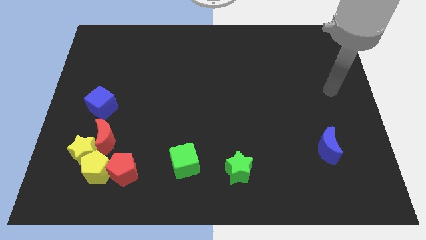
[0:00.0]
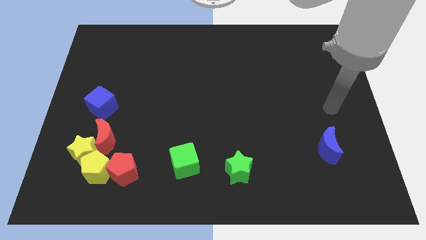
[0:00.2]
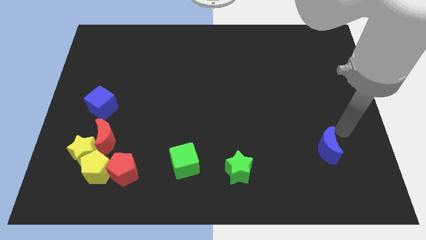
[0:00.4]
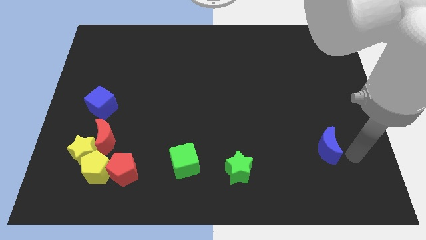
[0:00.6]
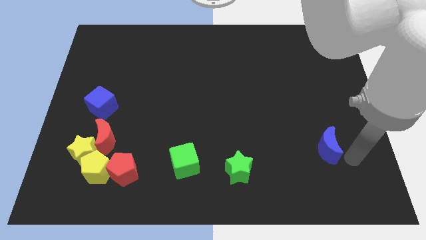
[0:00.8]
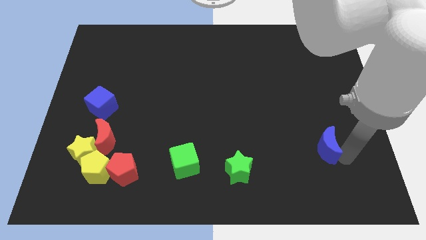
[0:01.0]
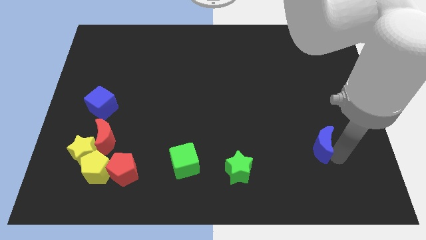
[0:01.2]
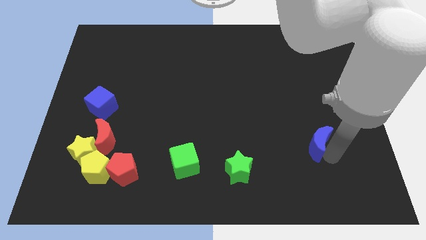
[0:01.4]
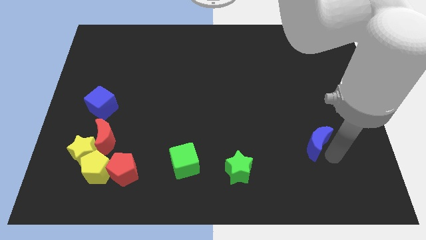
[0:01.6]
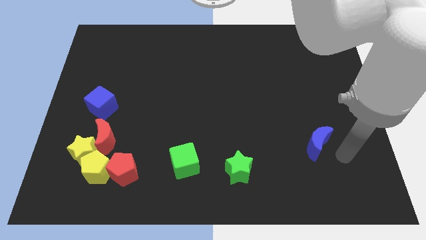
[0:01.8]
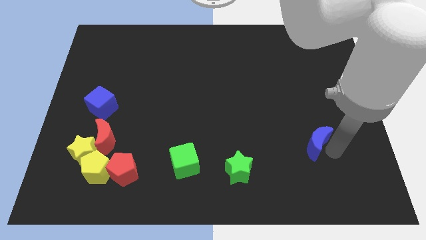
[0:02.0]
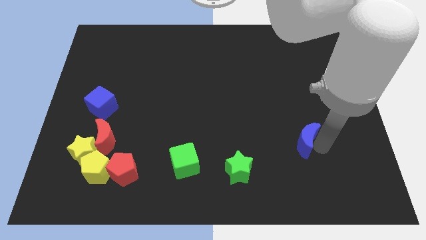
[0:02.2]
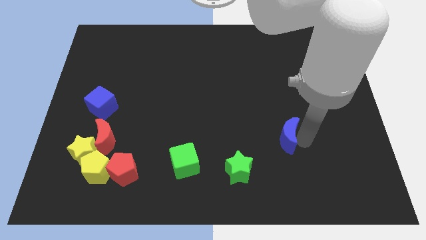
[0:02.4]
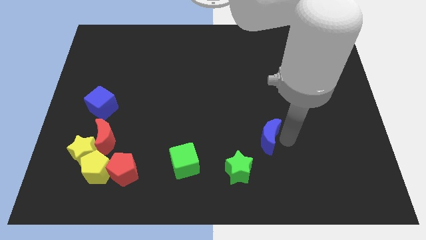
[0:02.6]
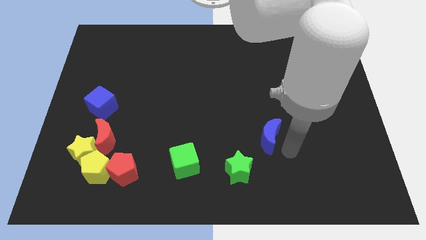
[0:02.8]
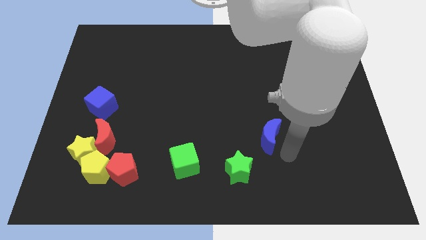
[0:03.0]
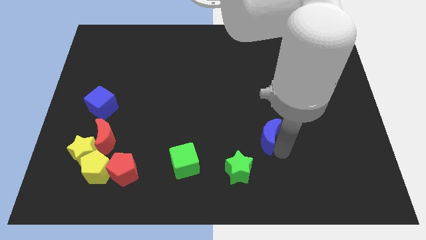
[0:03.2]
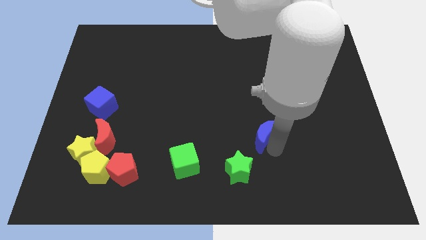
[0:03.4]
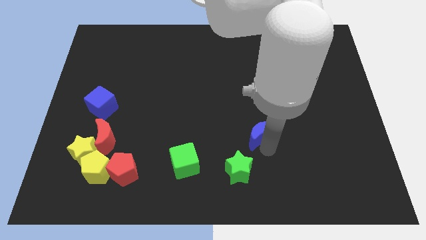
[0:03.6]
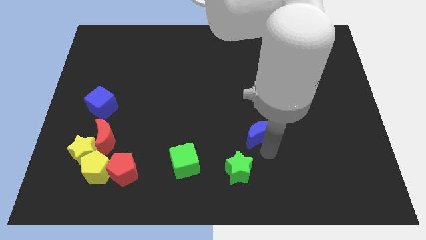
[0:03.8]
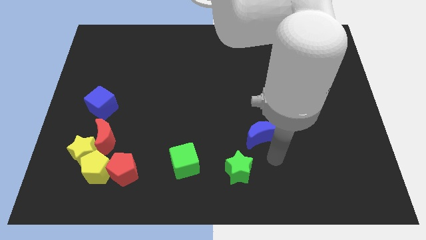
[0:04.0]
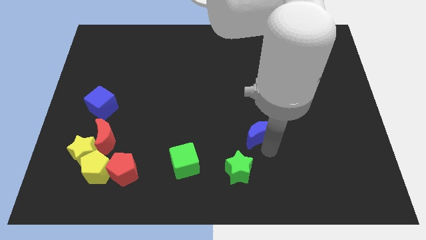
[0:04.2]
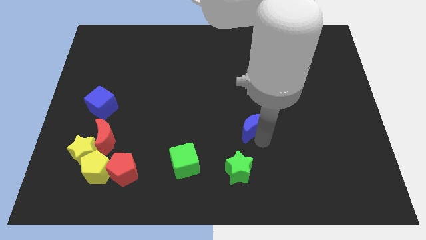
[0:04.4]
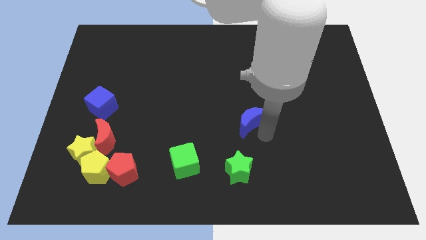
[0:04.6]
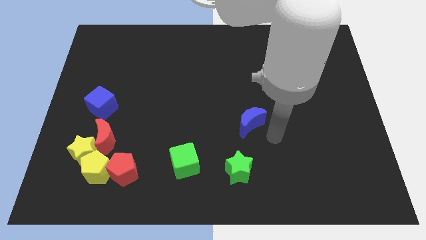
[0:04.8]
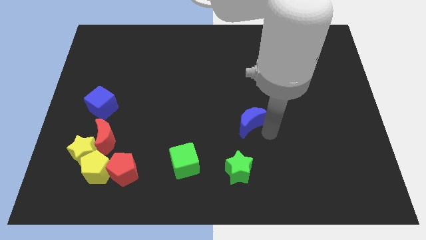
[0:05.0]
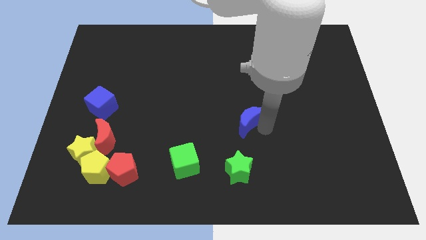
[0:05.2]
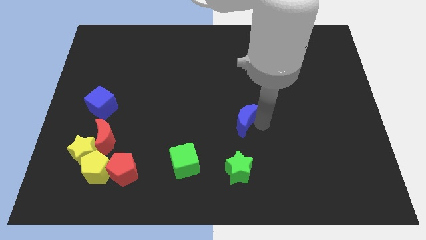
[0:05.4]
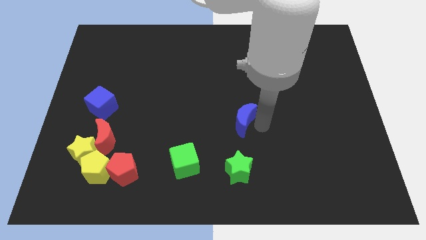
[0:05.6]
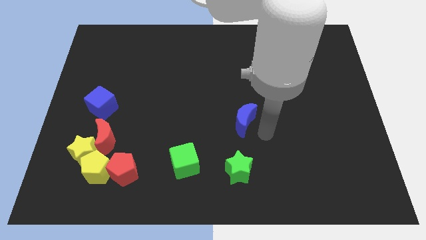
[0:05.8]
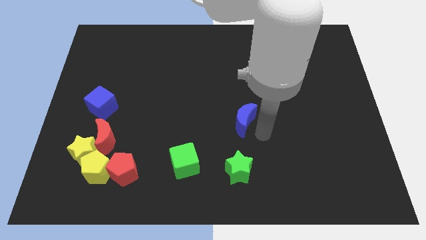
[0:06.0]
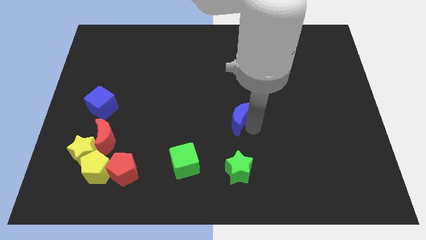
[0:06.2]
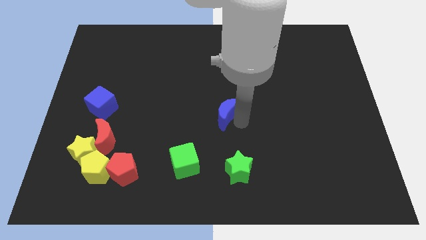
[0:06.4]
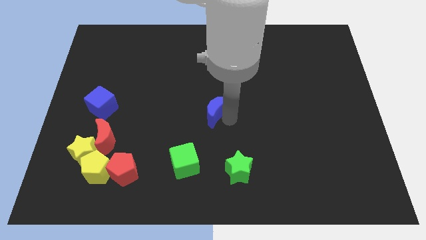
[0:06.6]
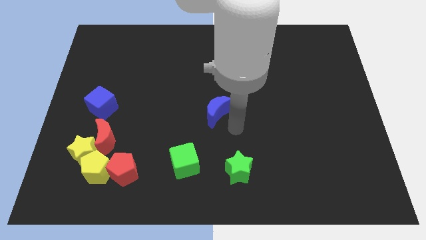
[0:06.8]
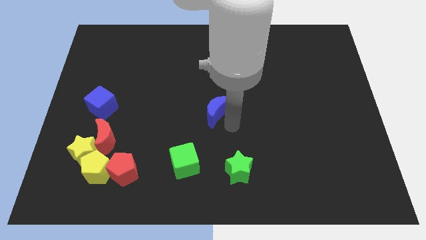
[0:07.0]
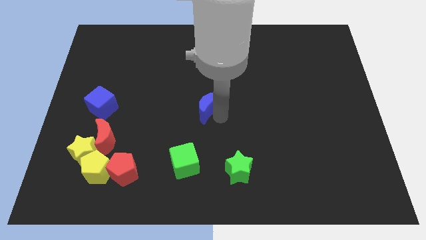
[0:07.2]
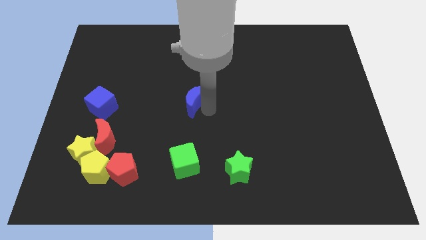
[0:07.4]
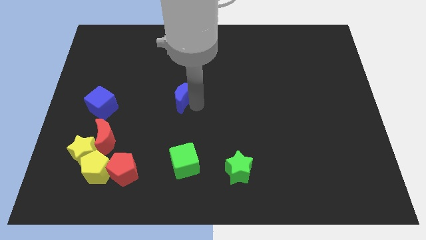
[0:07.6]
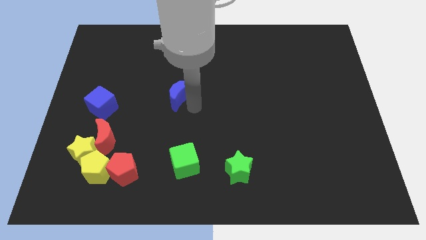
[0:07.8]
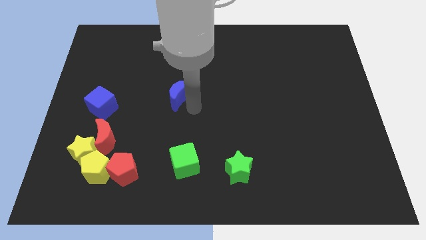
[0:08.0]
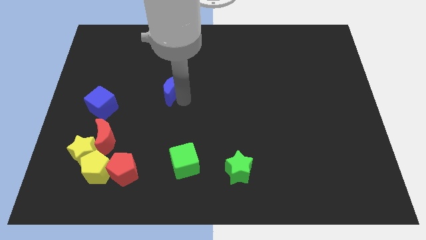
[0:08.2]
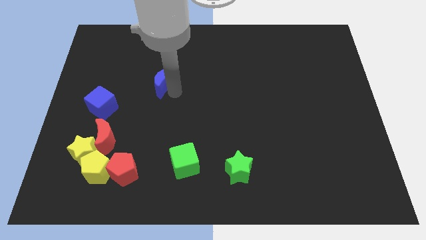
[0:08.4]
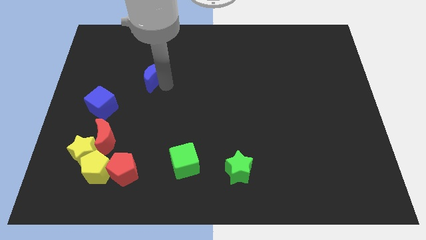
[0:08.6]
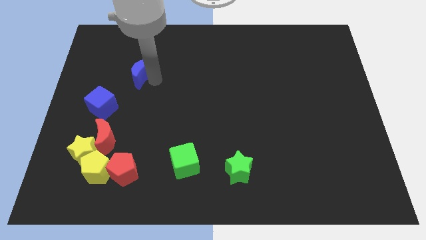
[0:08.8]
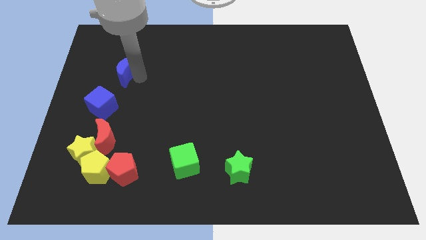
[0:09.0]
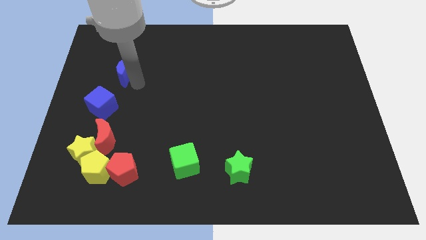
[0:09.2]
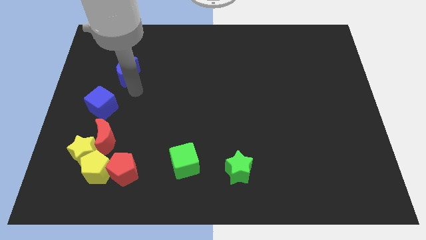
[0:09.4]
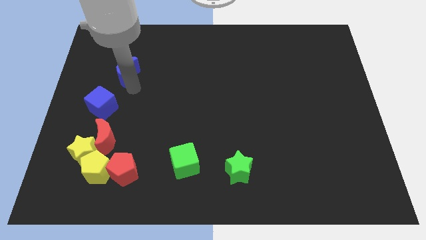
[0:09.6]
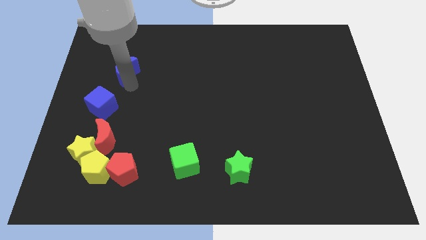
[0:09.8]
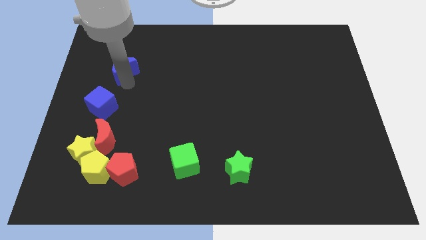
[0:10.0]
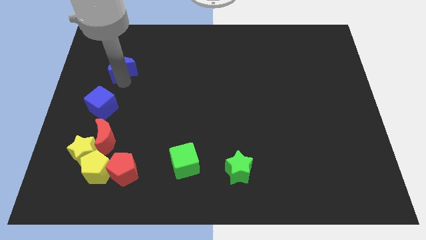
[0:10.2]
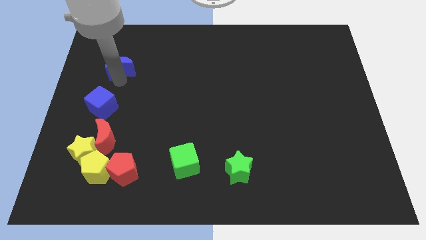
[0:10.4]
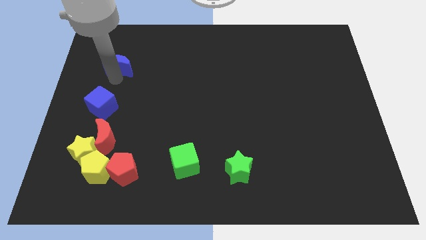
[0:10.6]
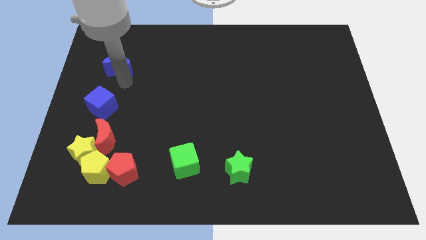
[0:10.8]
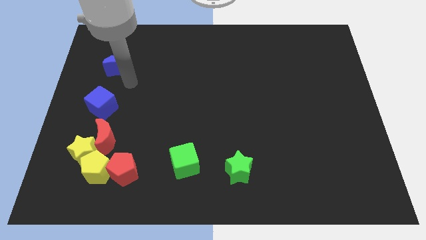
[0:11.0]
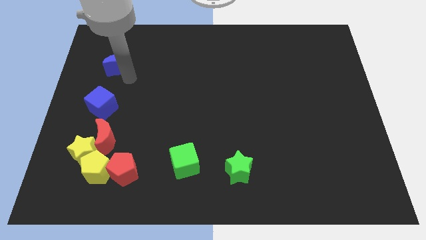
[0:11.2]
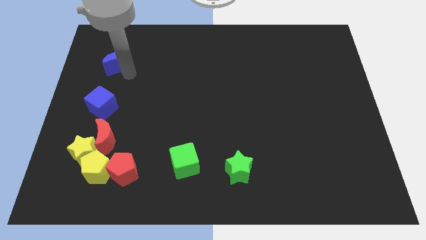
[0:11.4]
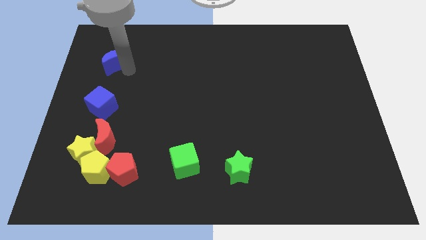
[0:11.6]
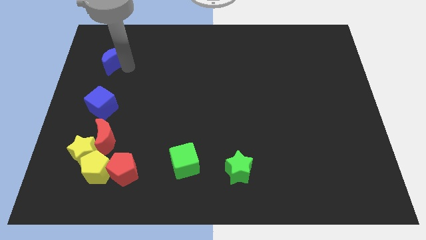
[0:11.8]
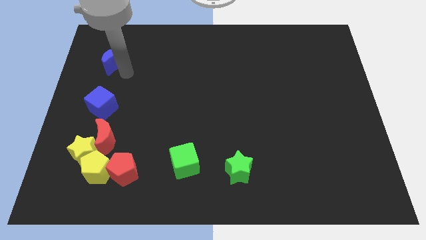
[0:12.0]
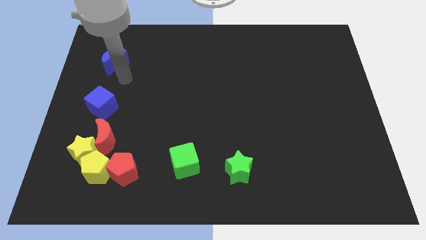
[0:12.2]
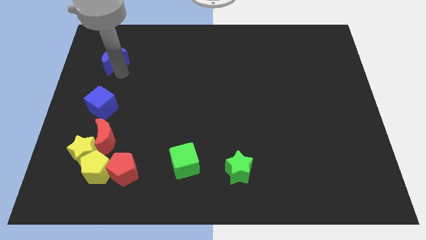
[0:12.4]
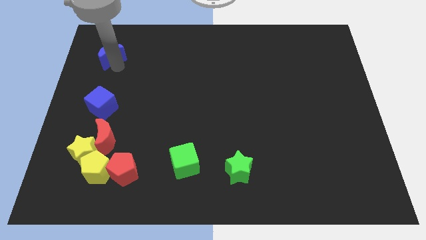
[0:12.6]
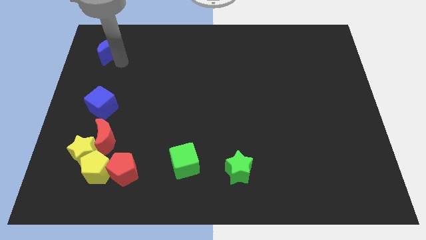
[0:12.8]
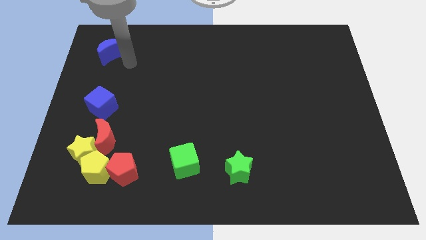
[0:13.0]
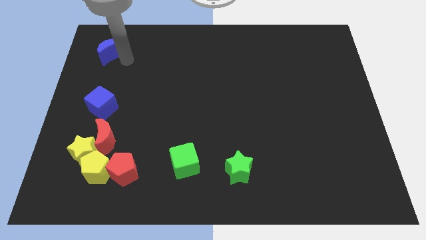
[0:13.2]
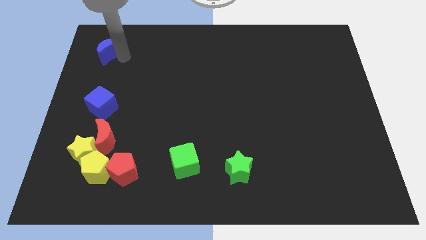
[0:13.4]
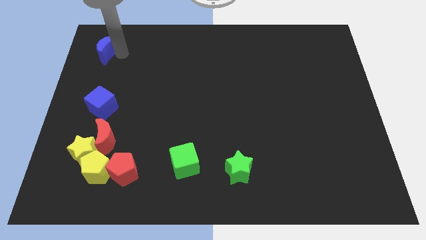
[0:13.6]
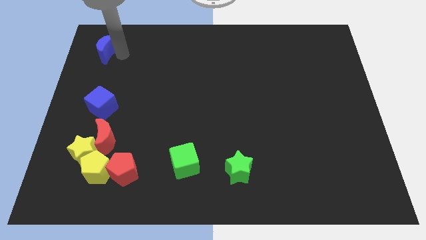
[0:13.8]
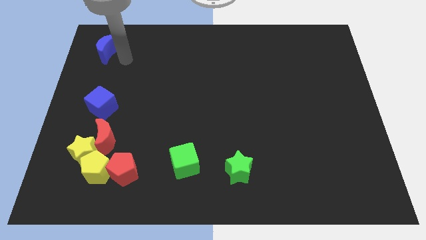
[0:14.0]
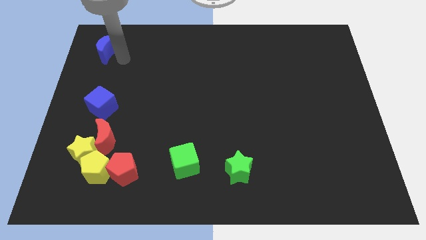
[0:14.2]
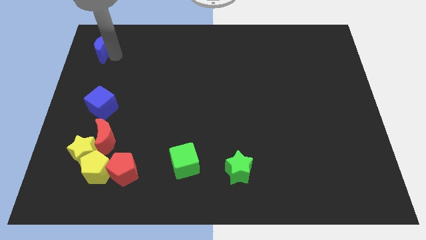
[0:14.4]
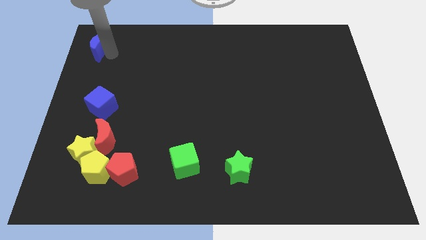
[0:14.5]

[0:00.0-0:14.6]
move the blue moon to the top left
